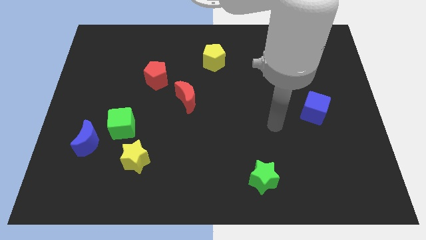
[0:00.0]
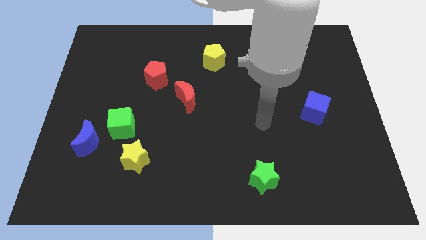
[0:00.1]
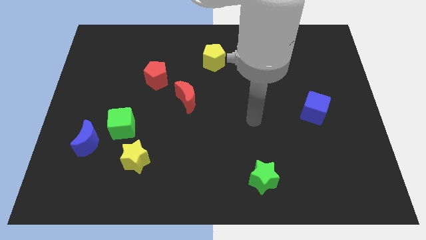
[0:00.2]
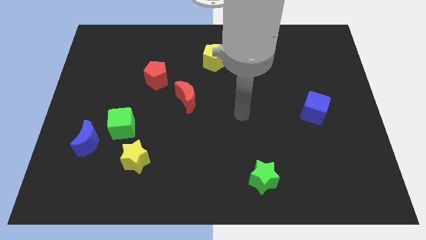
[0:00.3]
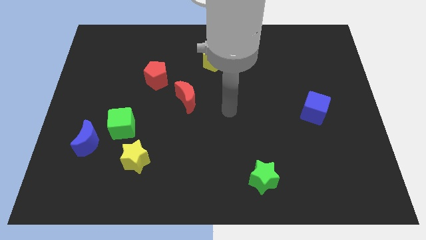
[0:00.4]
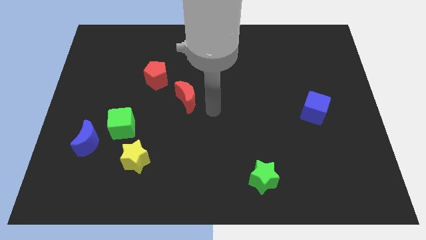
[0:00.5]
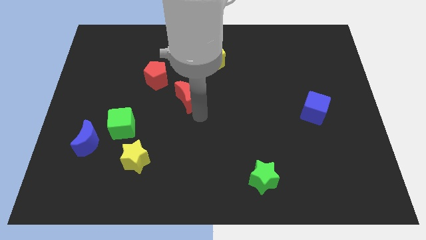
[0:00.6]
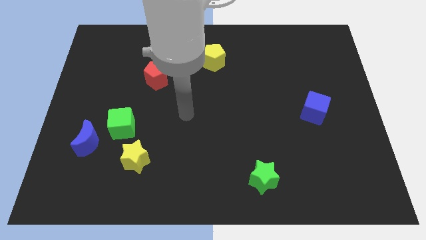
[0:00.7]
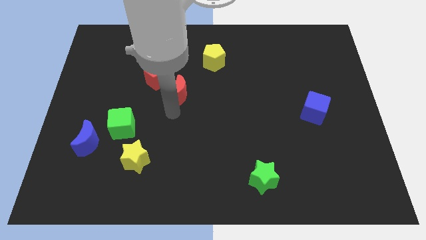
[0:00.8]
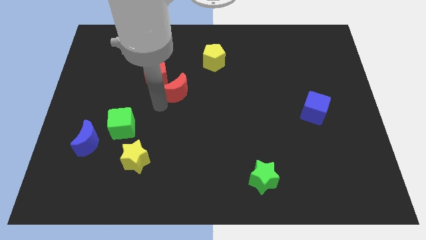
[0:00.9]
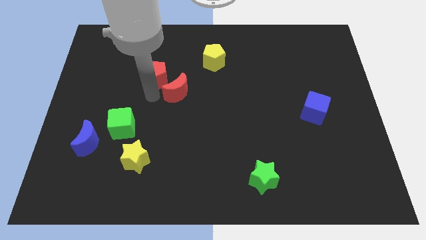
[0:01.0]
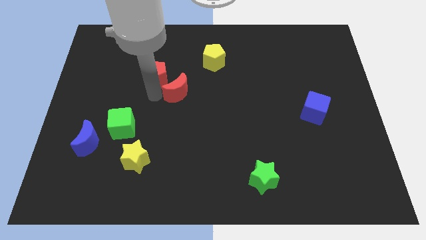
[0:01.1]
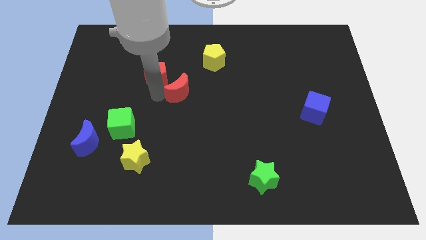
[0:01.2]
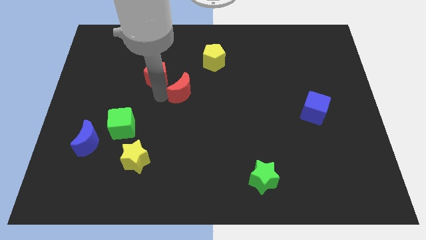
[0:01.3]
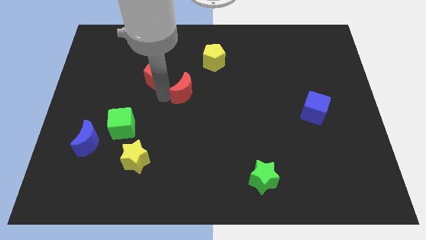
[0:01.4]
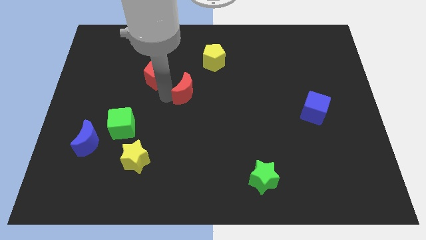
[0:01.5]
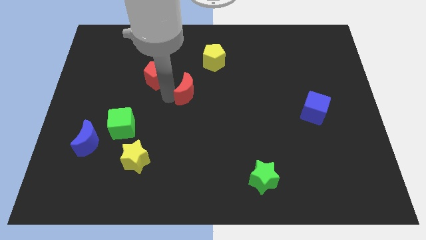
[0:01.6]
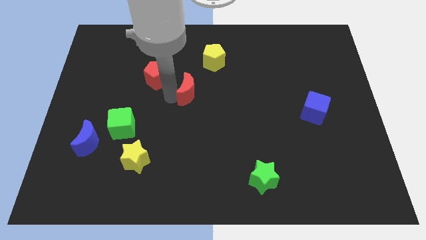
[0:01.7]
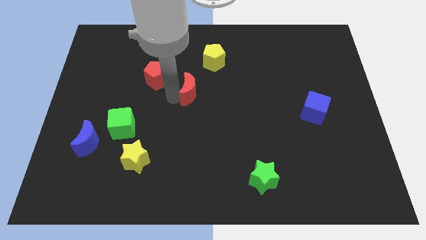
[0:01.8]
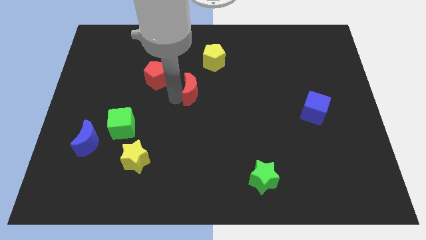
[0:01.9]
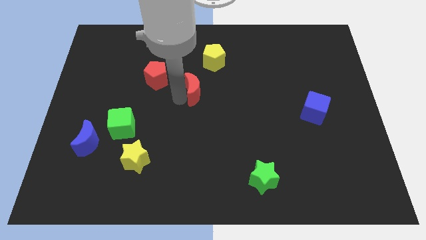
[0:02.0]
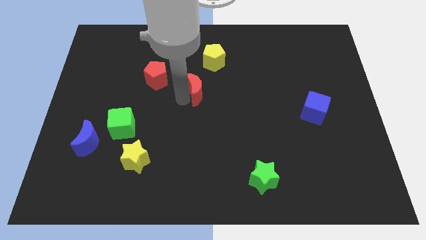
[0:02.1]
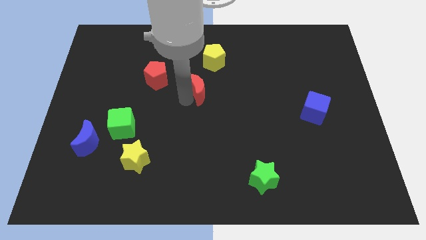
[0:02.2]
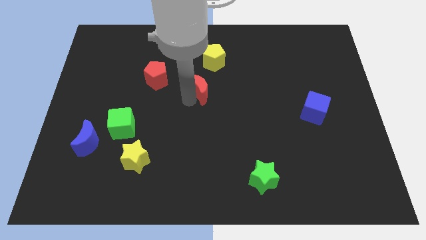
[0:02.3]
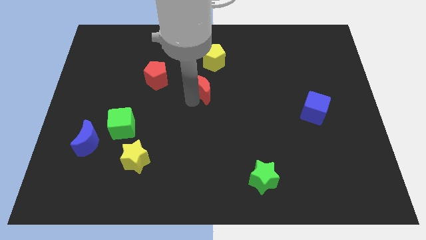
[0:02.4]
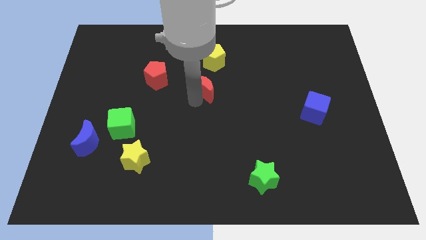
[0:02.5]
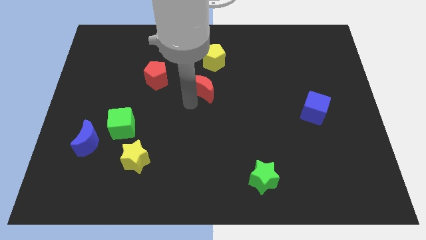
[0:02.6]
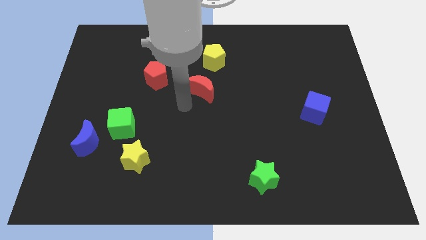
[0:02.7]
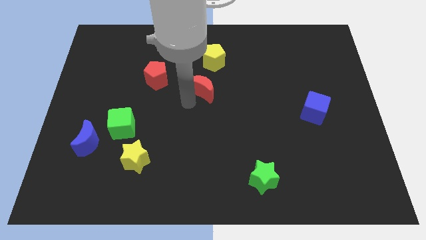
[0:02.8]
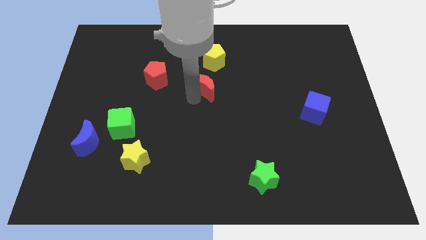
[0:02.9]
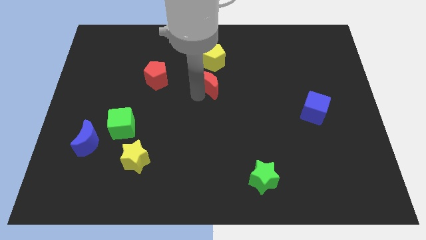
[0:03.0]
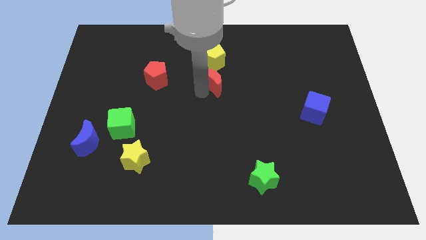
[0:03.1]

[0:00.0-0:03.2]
push the red moon upwards and to the right diagonally slightly

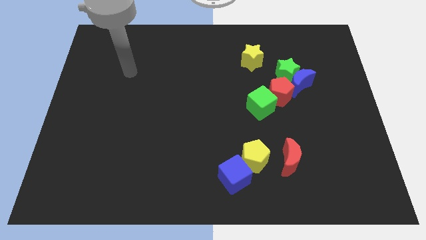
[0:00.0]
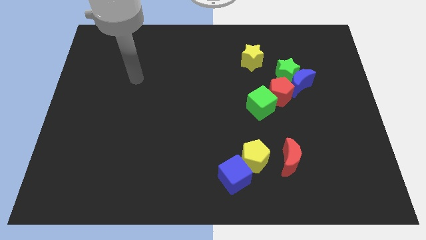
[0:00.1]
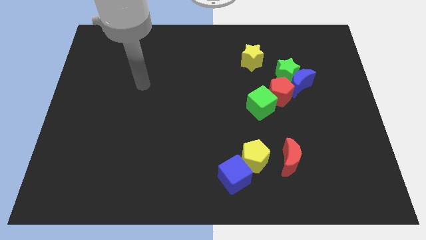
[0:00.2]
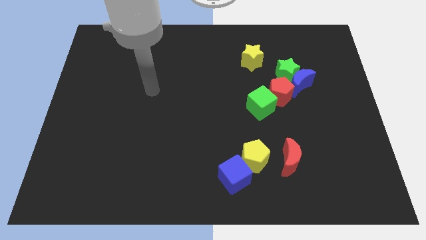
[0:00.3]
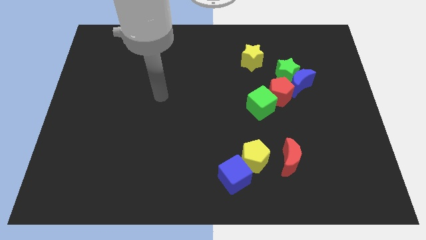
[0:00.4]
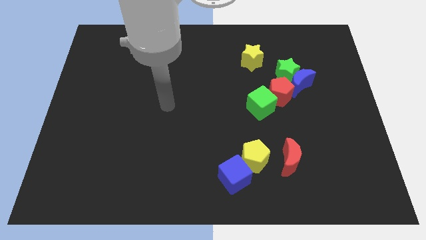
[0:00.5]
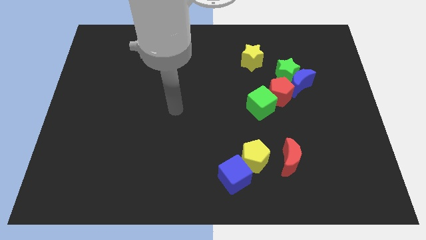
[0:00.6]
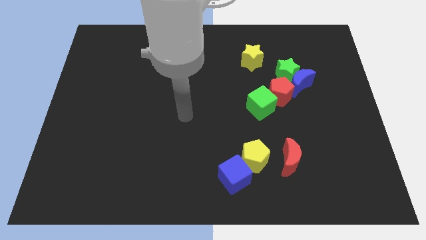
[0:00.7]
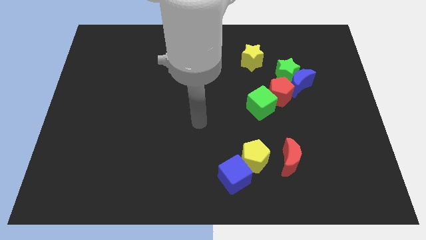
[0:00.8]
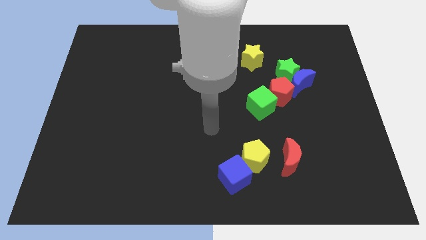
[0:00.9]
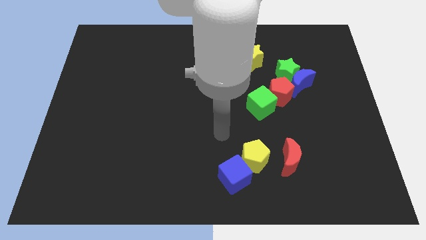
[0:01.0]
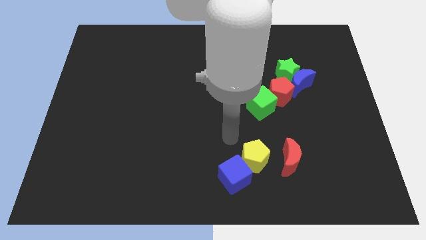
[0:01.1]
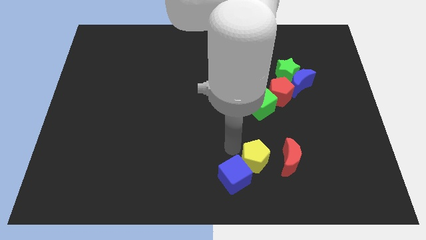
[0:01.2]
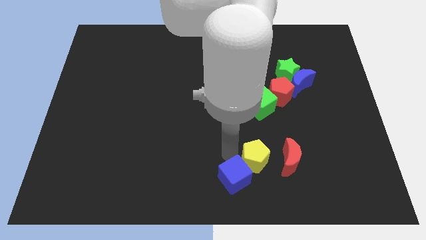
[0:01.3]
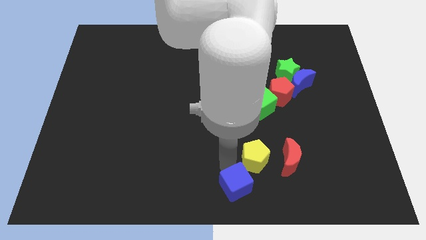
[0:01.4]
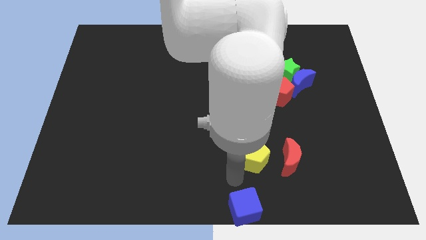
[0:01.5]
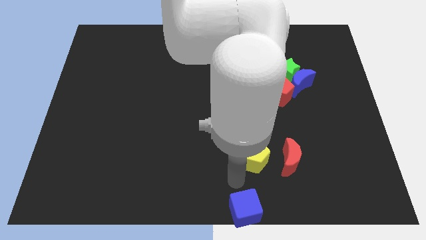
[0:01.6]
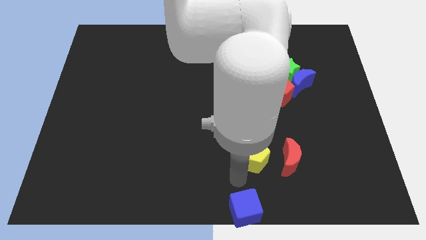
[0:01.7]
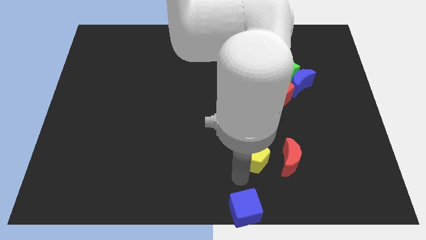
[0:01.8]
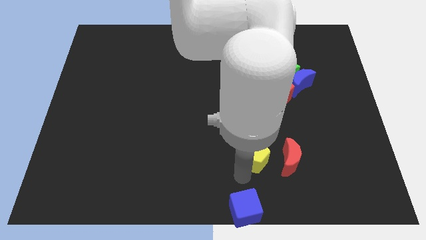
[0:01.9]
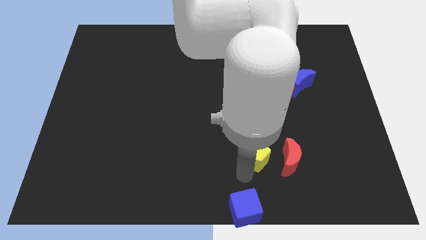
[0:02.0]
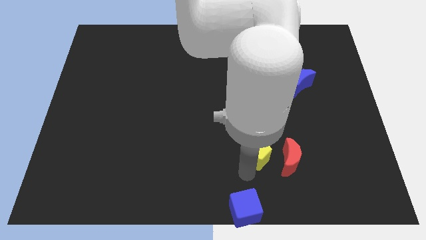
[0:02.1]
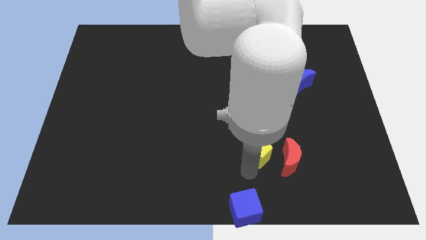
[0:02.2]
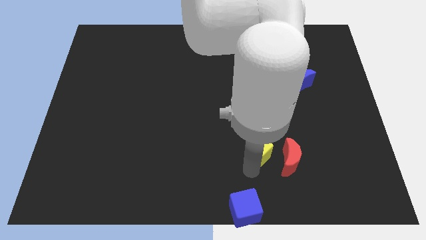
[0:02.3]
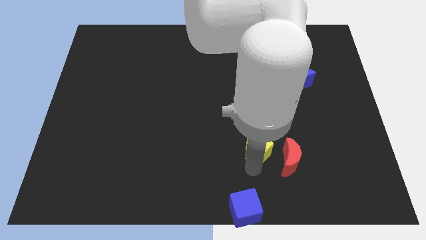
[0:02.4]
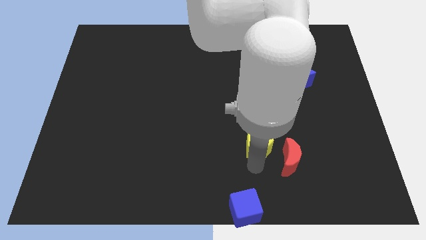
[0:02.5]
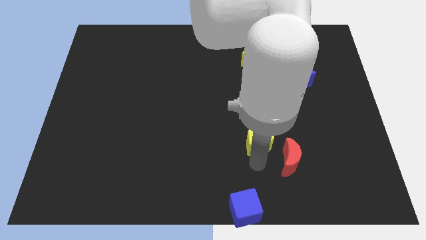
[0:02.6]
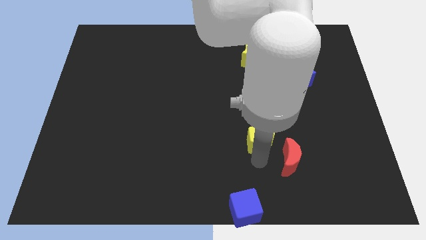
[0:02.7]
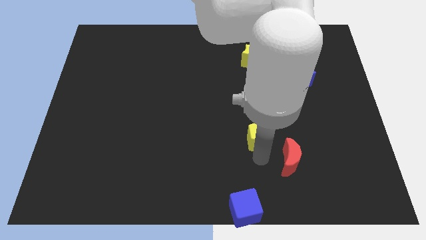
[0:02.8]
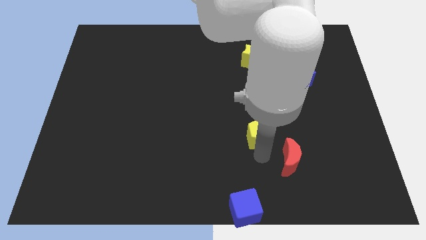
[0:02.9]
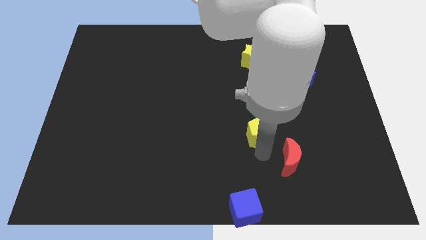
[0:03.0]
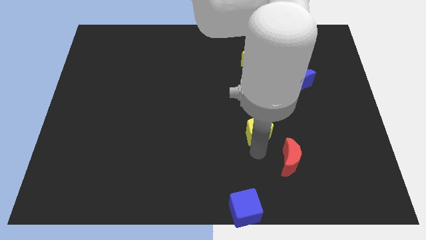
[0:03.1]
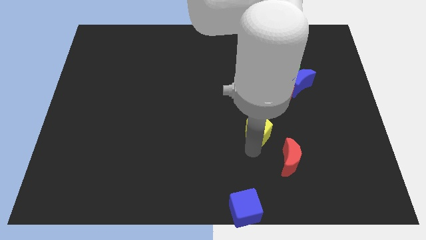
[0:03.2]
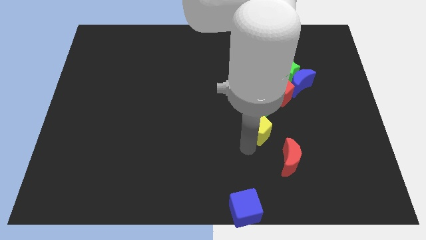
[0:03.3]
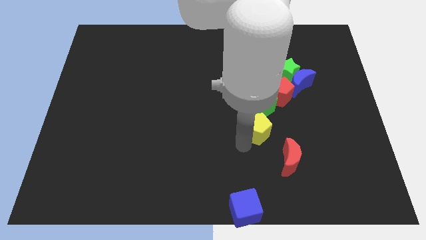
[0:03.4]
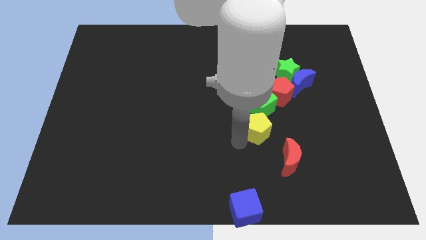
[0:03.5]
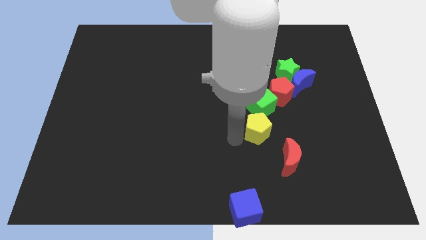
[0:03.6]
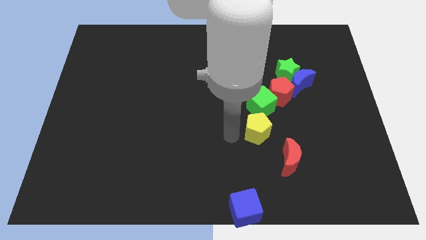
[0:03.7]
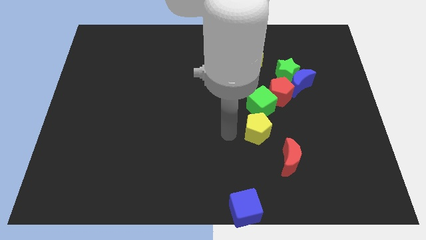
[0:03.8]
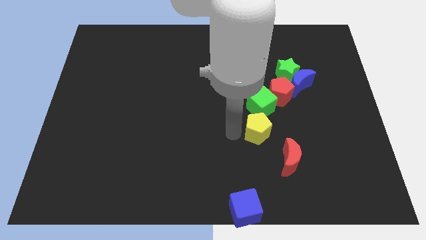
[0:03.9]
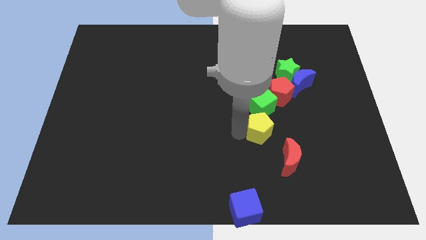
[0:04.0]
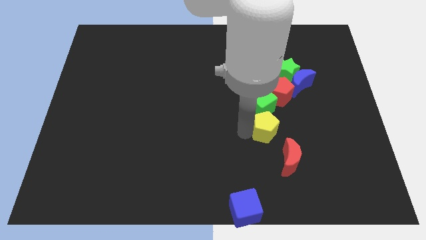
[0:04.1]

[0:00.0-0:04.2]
move the yellow pentagon upwards and right a bit

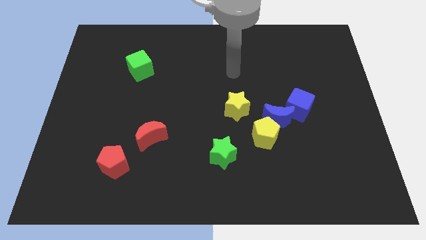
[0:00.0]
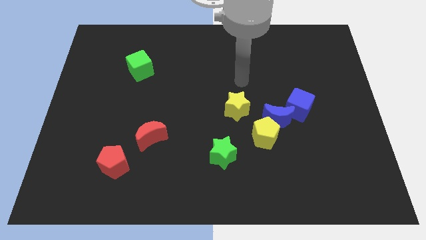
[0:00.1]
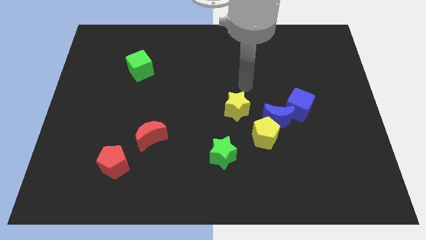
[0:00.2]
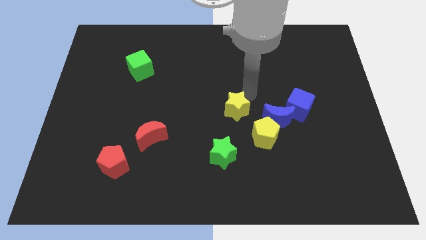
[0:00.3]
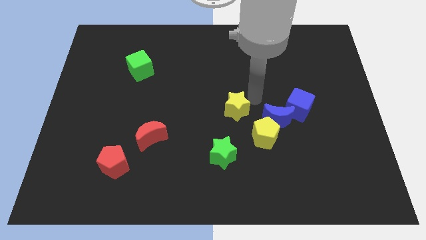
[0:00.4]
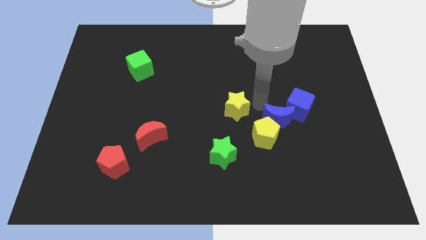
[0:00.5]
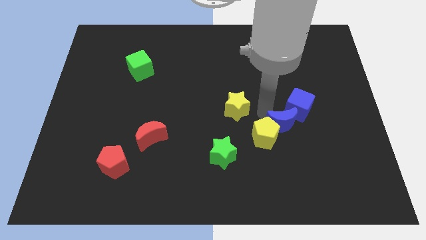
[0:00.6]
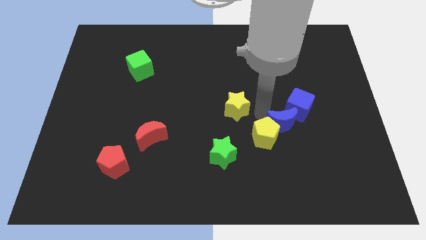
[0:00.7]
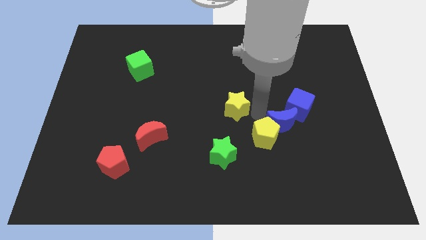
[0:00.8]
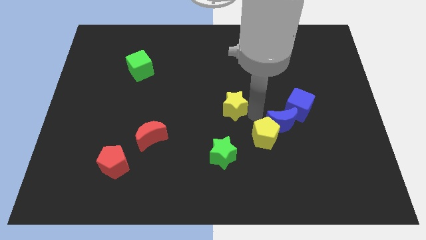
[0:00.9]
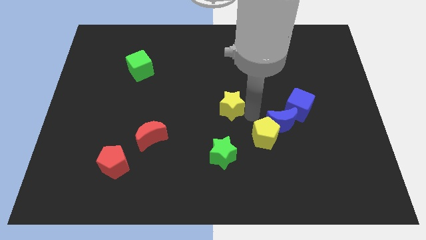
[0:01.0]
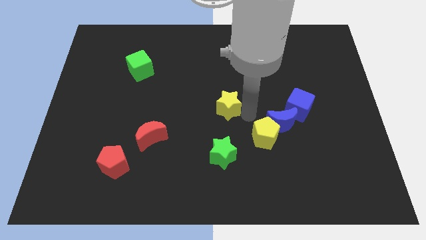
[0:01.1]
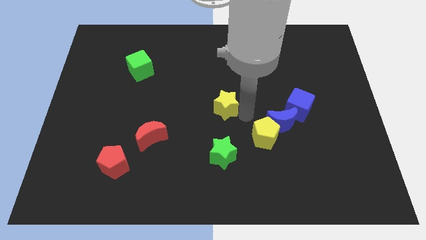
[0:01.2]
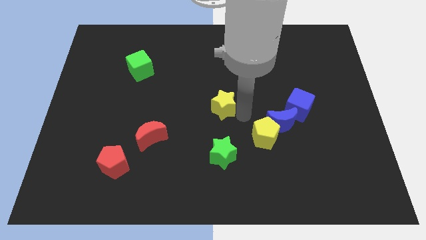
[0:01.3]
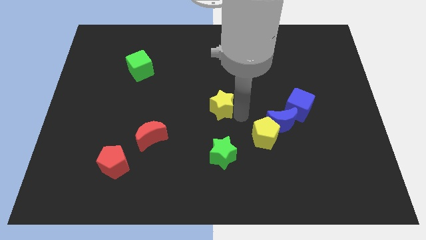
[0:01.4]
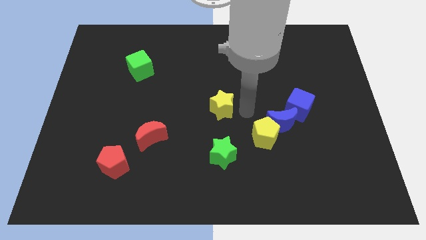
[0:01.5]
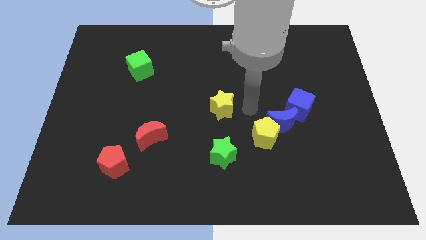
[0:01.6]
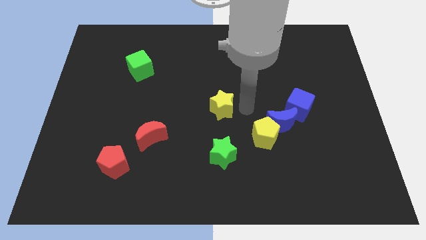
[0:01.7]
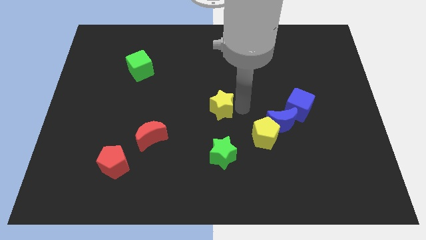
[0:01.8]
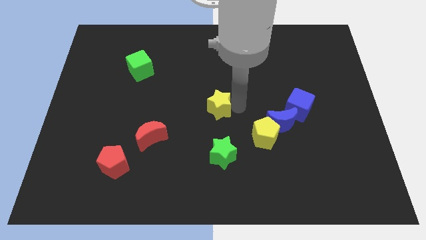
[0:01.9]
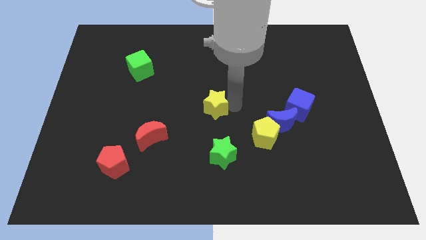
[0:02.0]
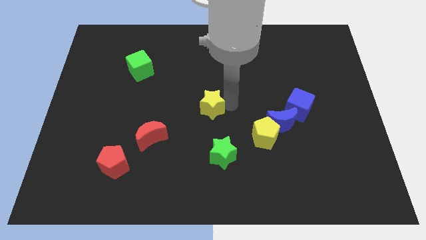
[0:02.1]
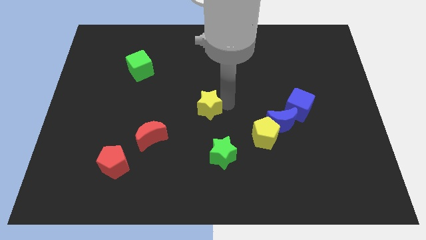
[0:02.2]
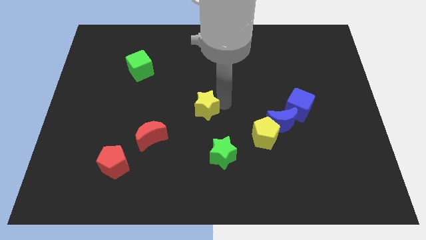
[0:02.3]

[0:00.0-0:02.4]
move the yellow star left a little
